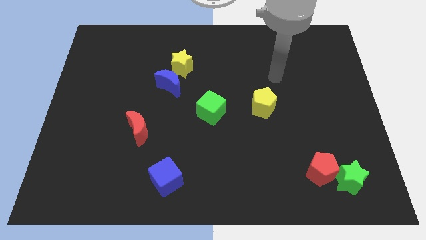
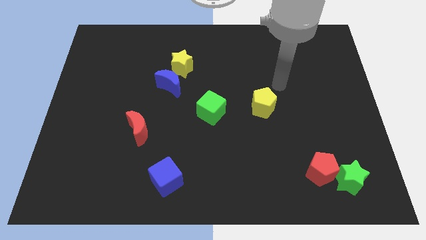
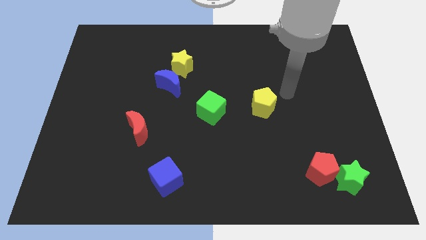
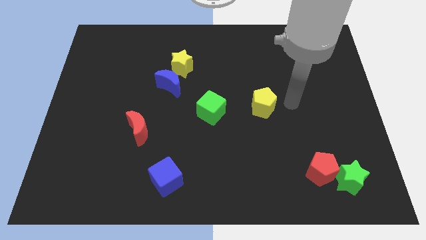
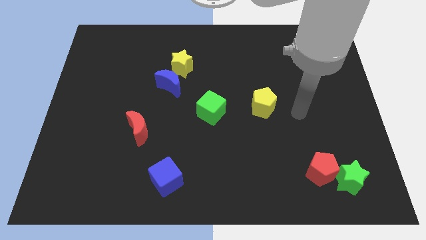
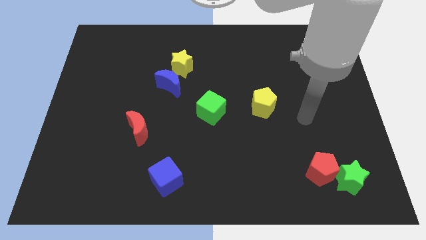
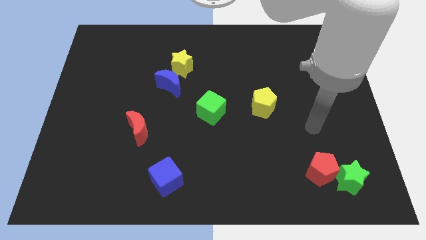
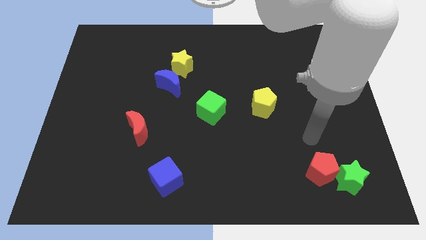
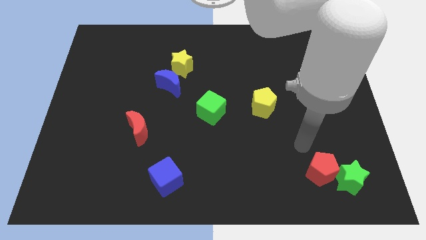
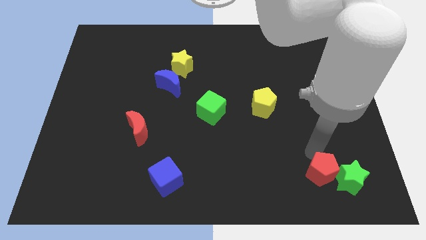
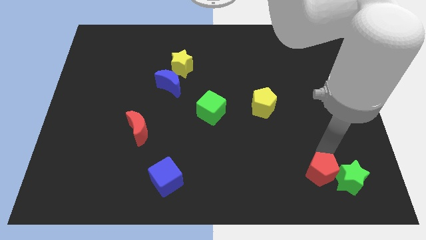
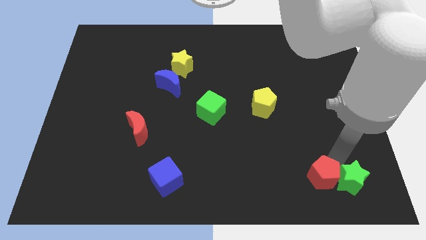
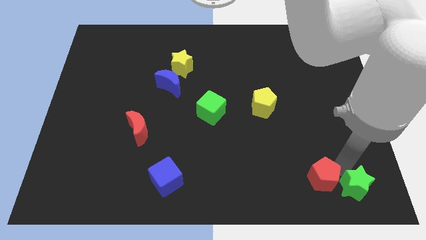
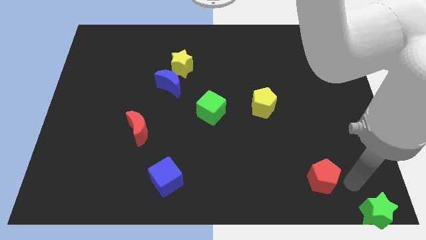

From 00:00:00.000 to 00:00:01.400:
separate the red pentagon from the green star

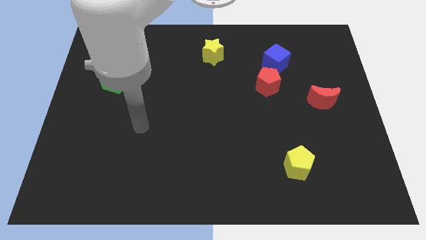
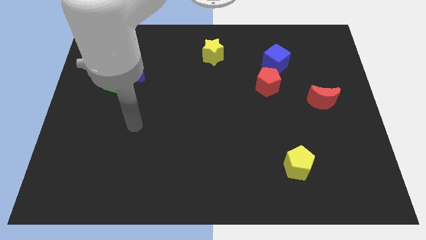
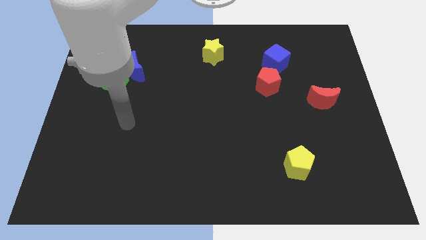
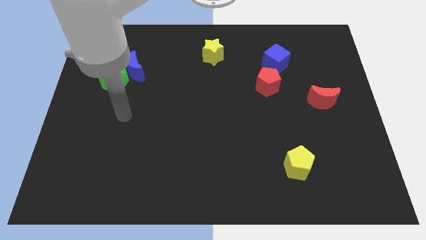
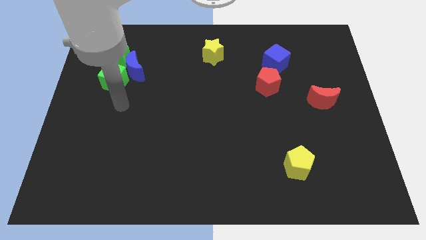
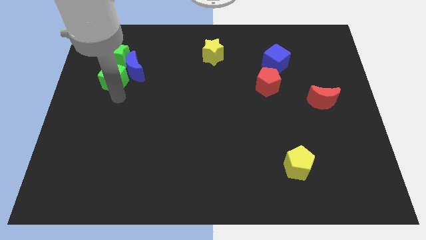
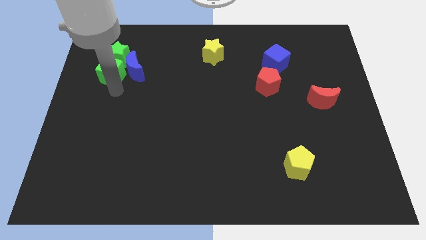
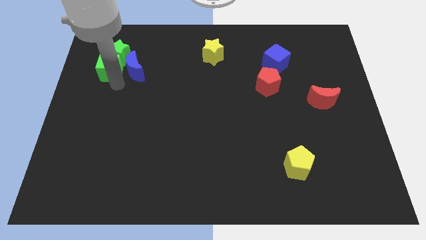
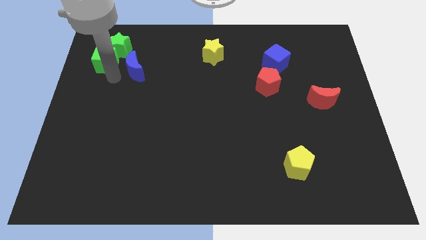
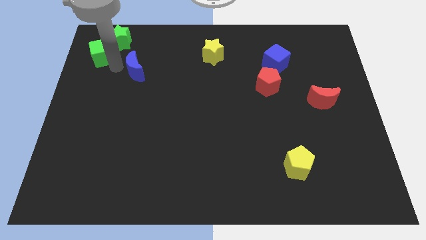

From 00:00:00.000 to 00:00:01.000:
separate the blue moon from the green cube and green star

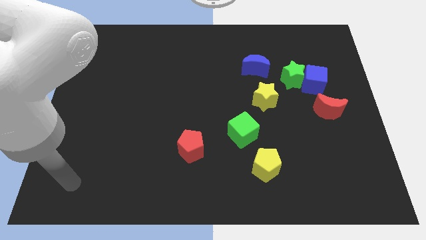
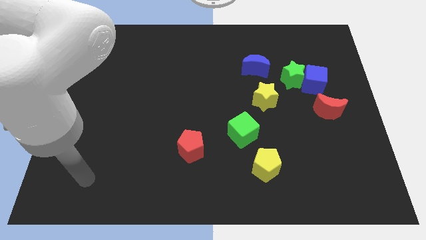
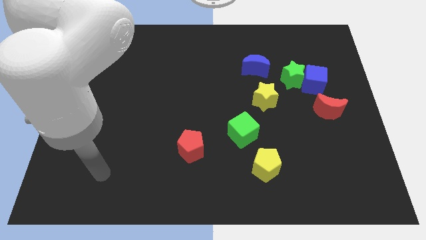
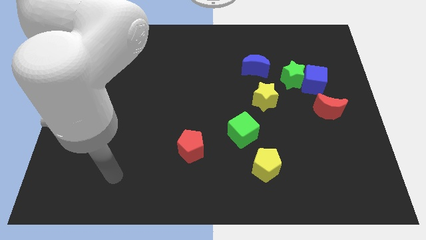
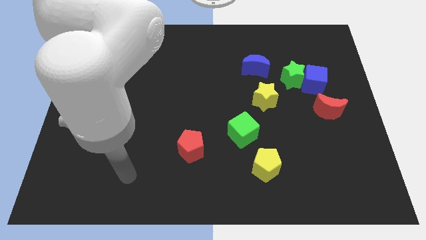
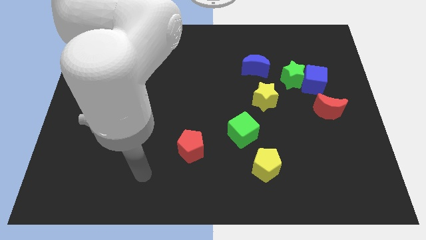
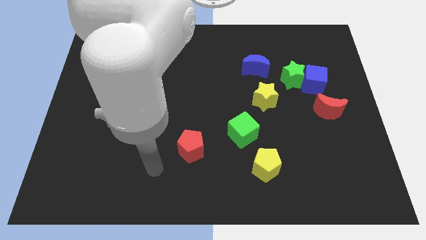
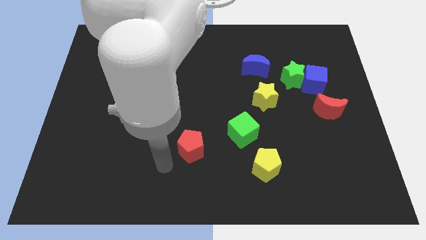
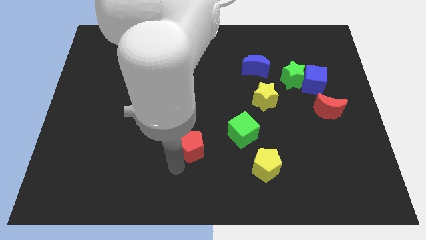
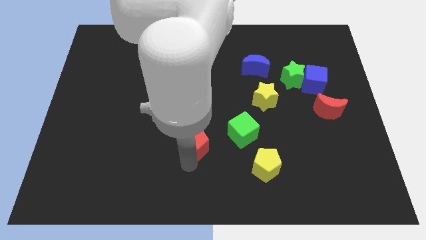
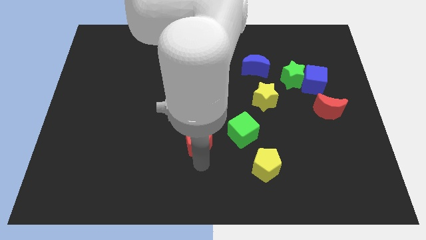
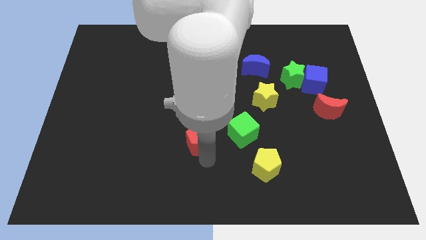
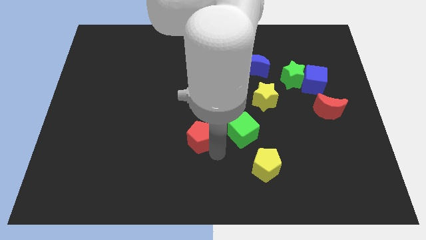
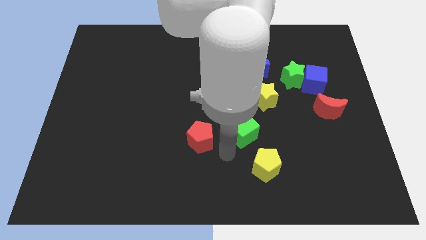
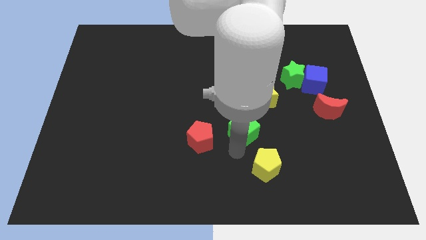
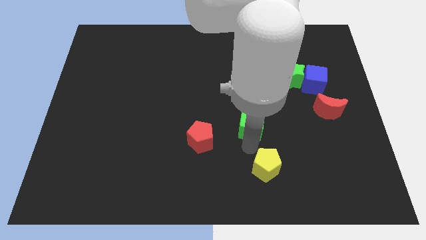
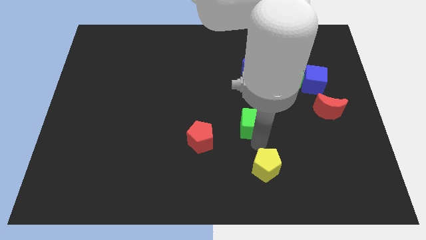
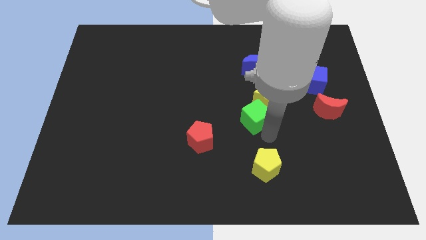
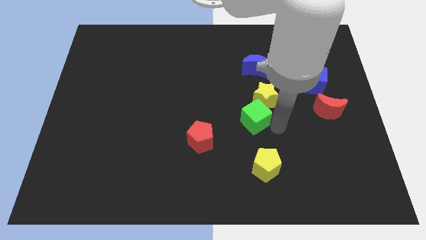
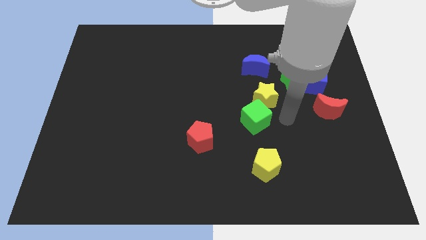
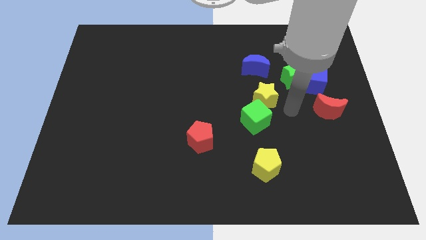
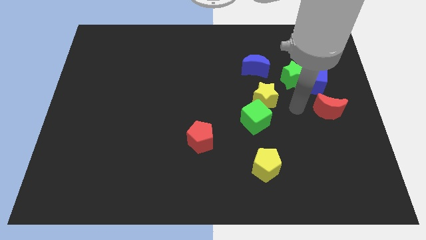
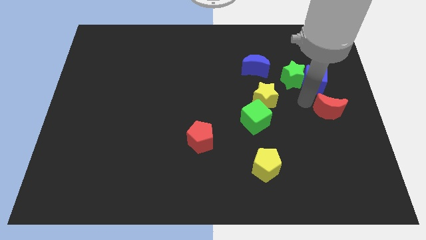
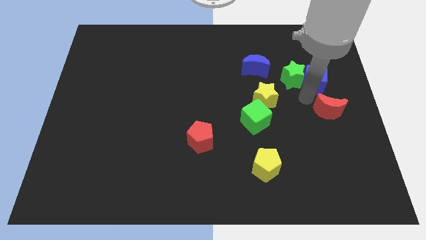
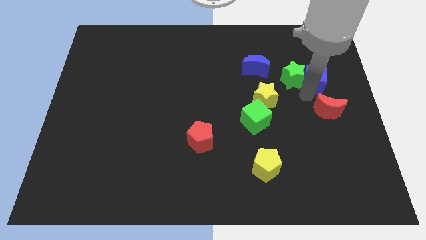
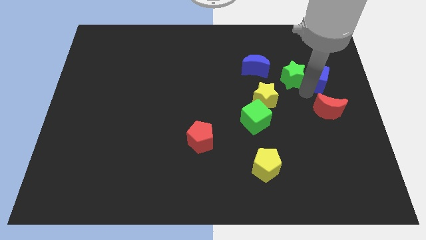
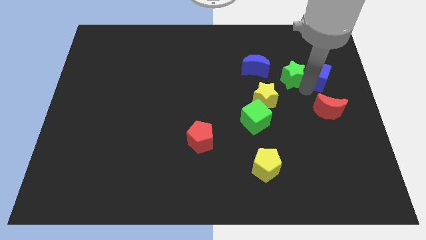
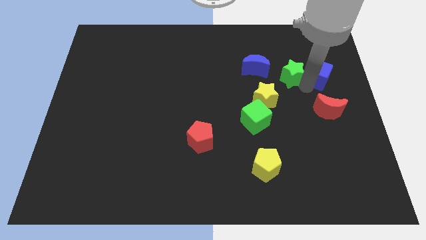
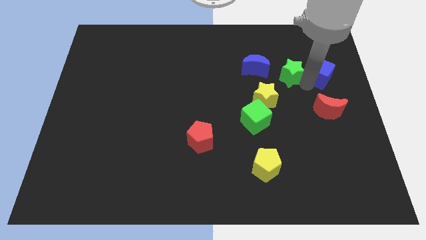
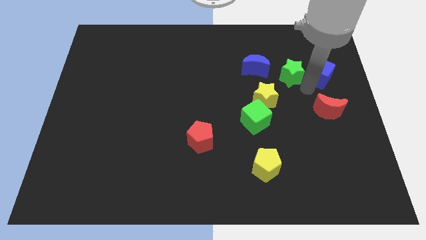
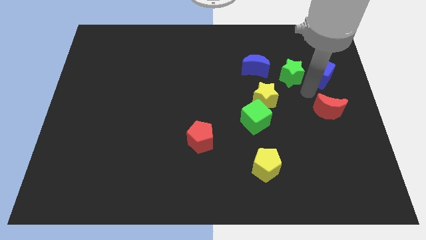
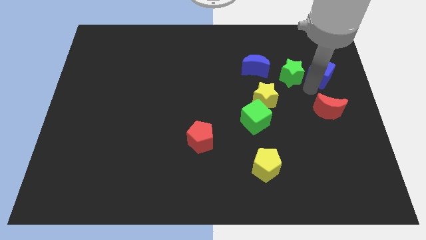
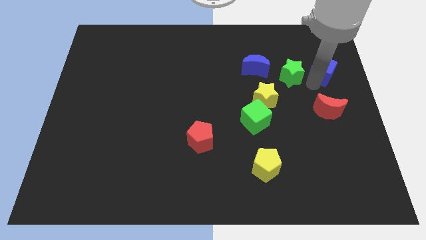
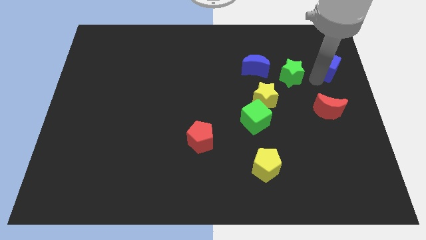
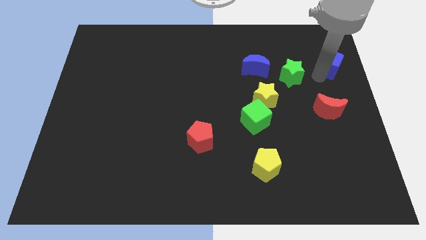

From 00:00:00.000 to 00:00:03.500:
move the blue cube away from the green star and red moon

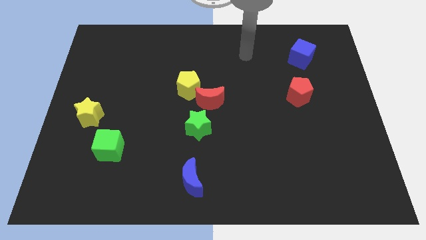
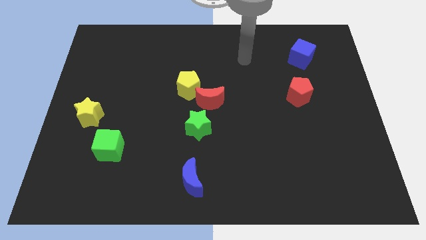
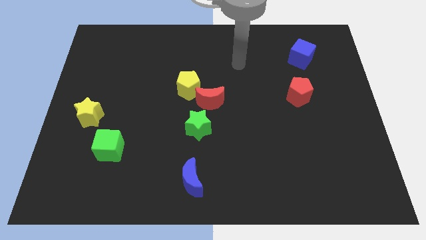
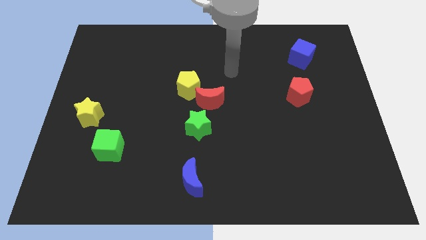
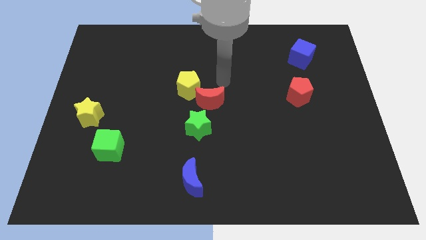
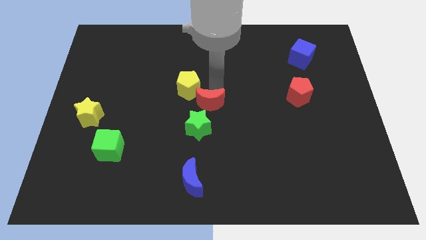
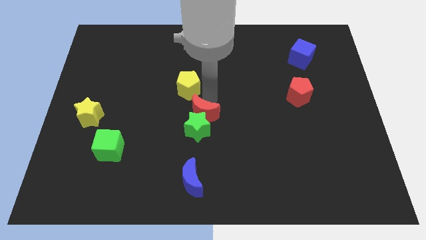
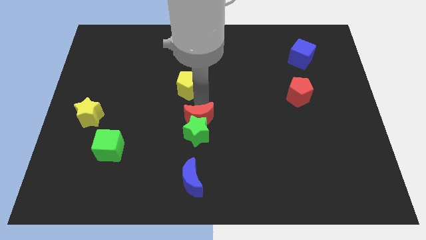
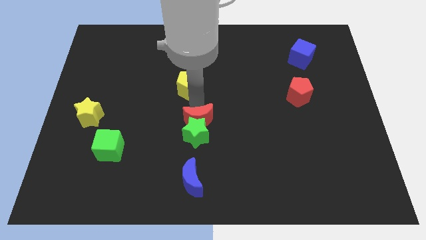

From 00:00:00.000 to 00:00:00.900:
pull the yellow pentagon apart from the red moon

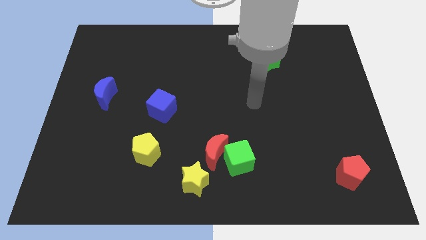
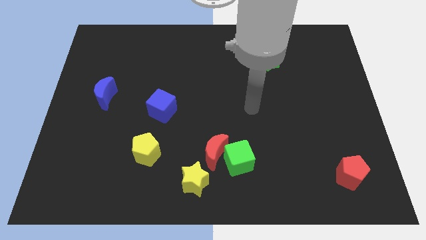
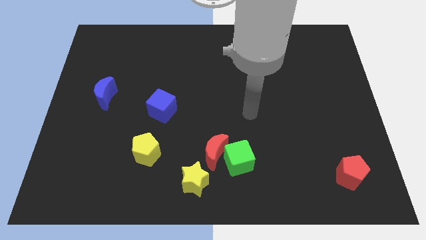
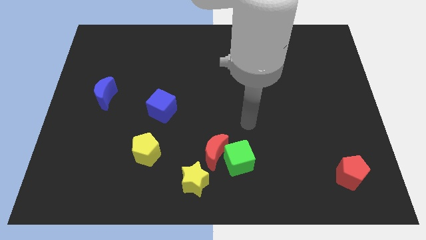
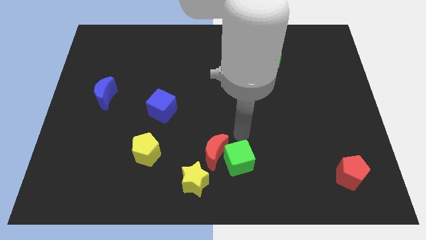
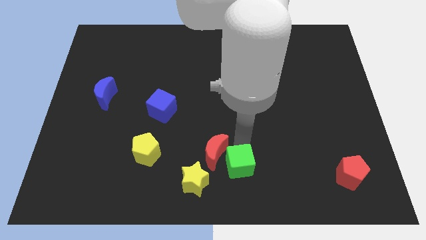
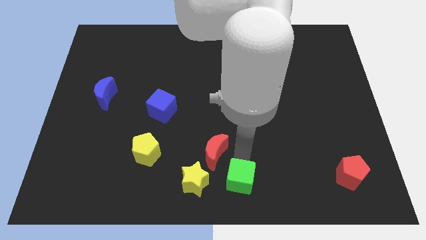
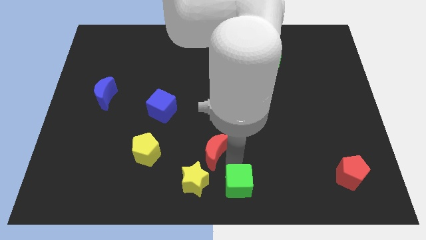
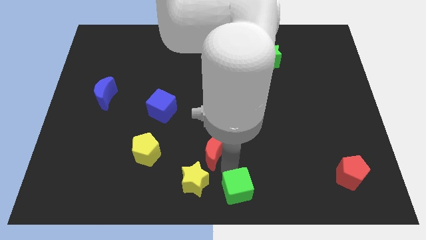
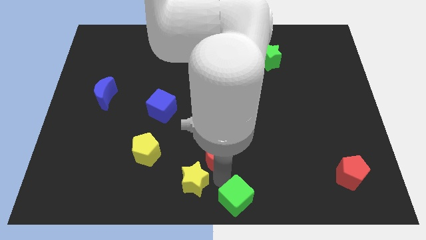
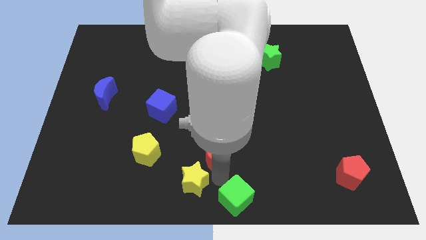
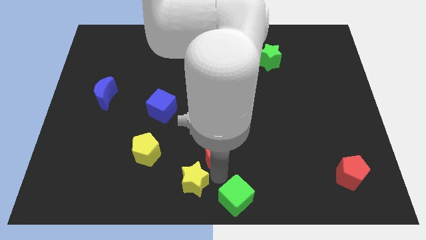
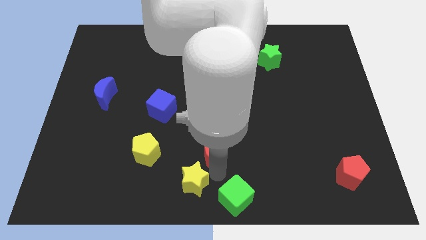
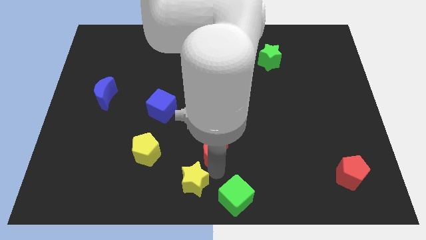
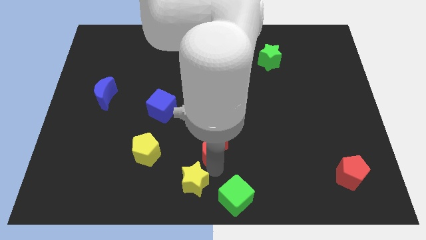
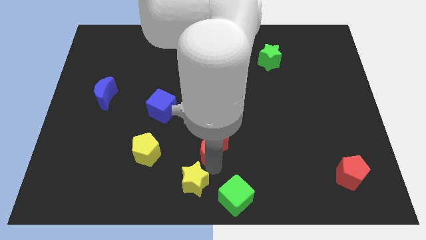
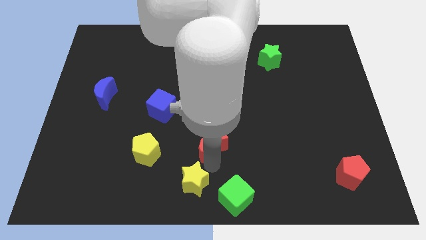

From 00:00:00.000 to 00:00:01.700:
move the red moon away from the green cube and yellow star

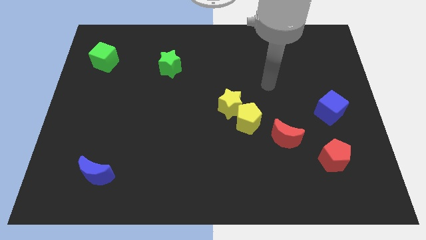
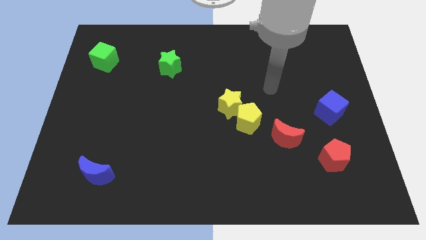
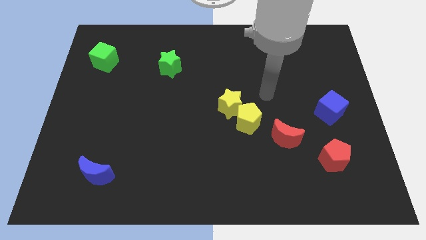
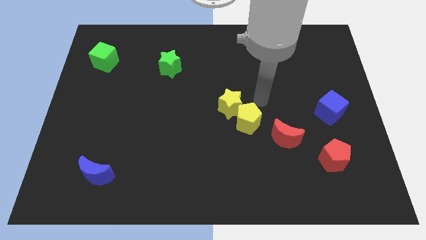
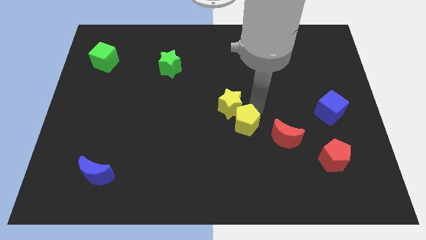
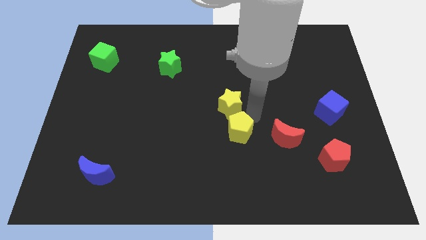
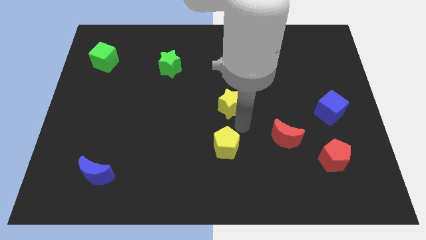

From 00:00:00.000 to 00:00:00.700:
move the yellow star away from the yellow pentagon

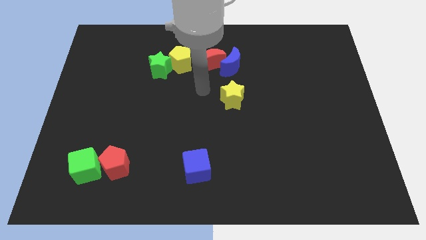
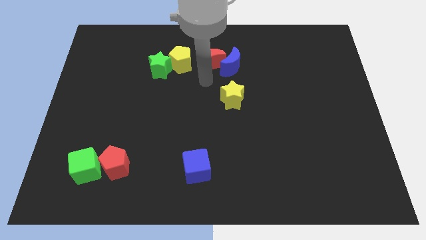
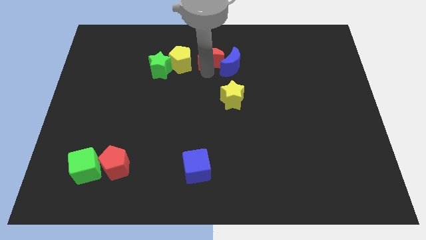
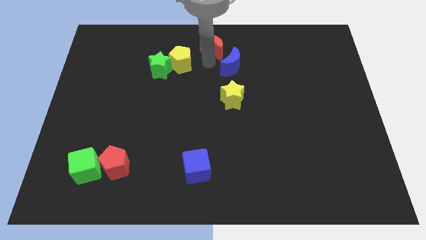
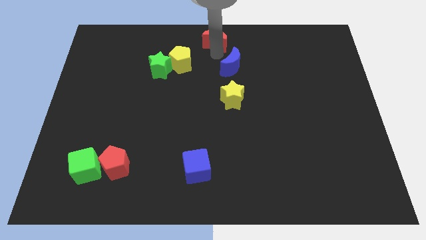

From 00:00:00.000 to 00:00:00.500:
pull the blue moon apart from the red moon
